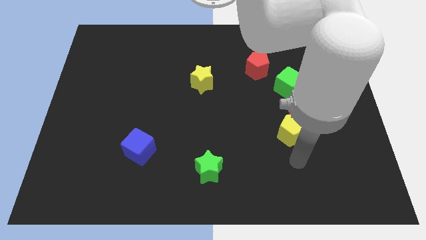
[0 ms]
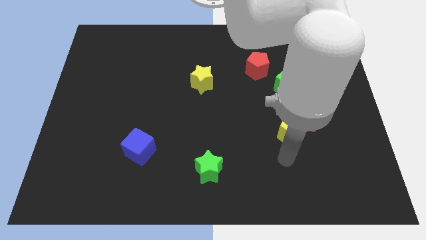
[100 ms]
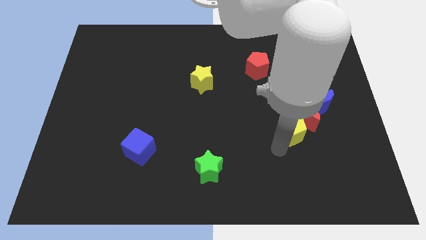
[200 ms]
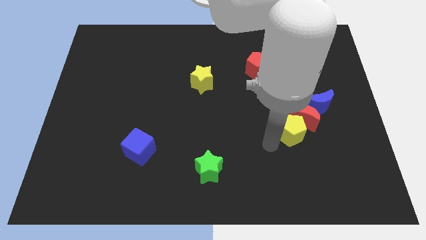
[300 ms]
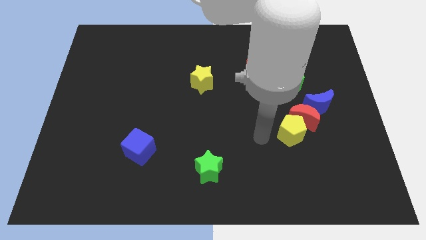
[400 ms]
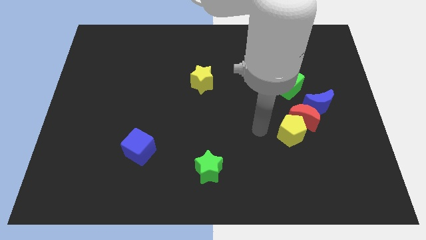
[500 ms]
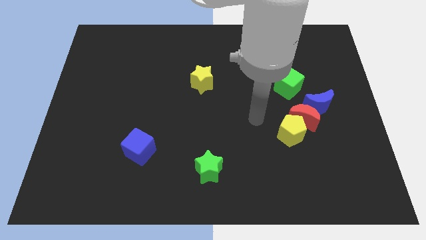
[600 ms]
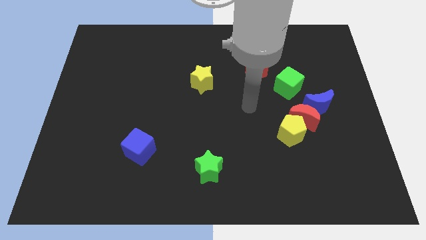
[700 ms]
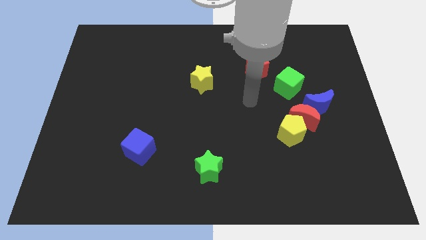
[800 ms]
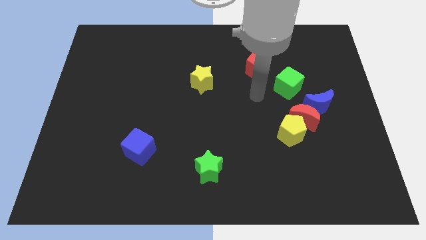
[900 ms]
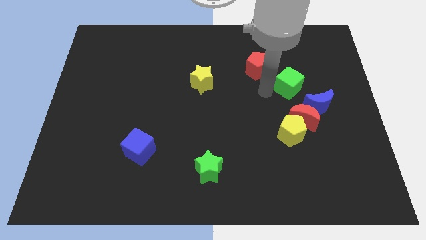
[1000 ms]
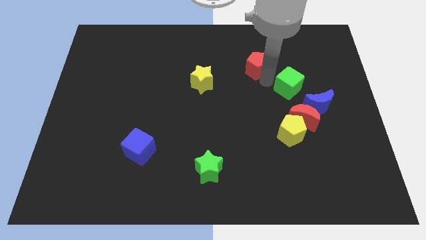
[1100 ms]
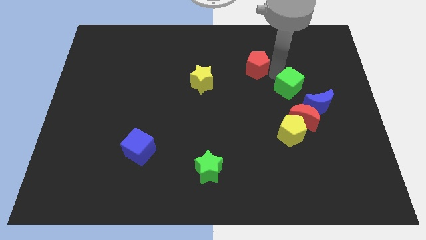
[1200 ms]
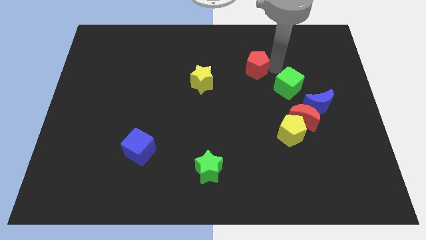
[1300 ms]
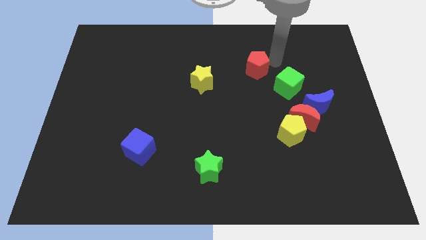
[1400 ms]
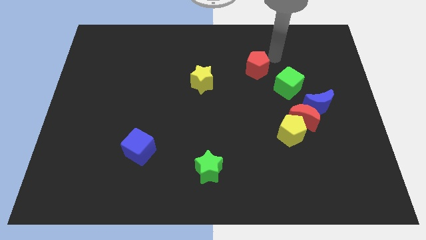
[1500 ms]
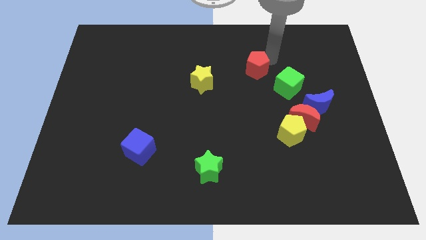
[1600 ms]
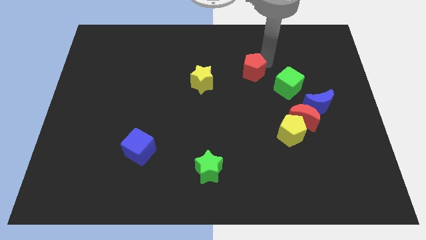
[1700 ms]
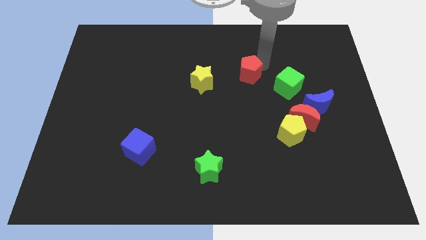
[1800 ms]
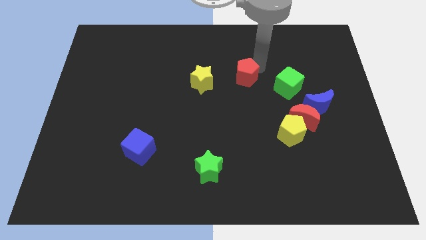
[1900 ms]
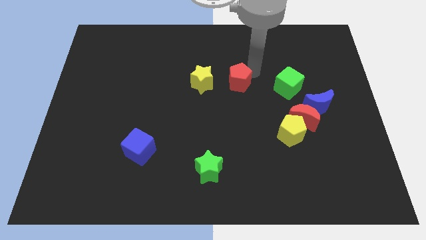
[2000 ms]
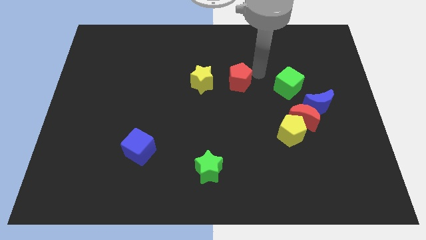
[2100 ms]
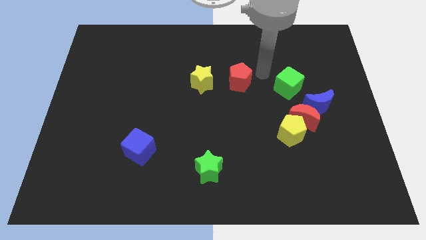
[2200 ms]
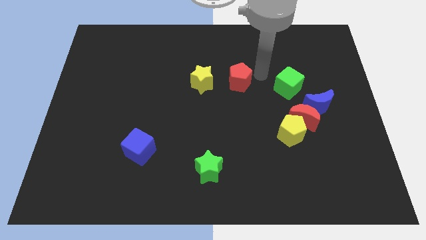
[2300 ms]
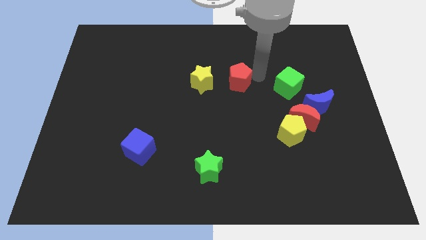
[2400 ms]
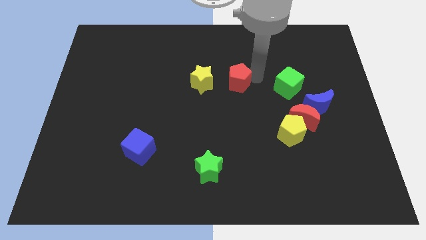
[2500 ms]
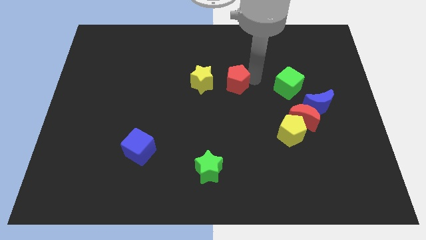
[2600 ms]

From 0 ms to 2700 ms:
move the red pentagon slightly downwards and left

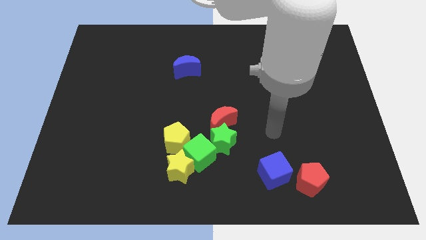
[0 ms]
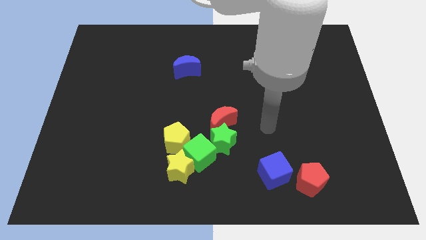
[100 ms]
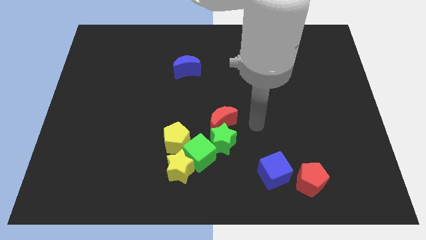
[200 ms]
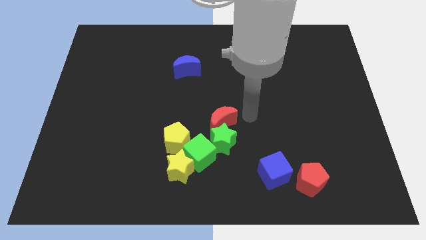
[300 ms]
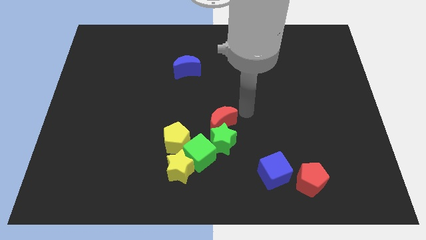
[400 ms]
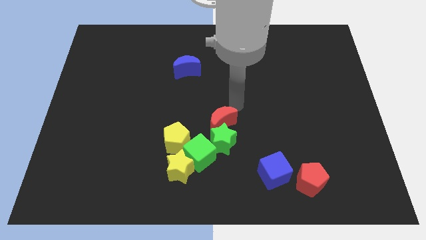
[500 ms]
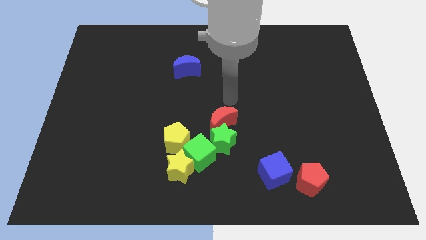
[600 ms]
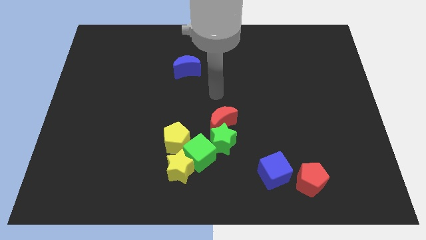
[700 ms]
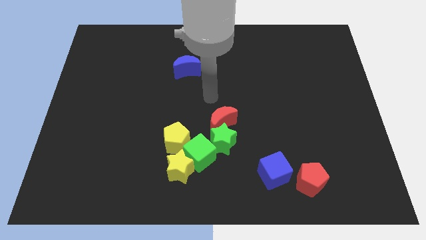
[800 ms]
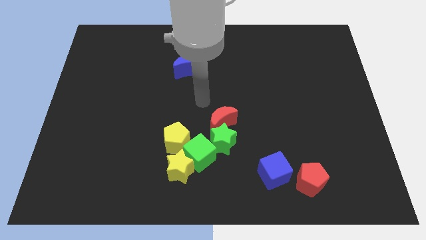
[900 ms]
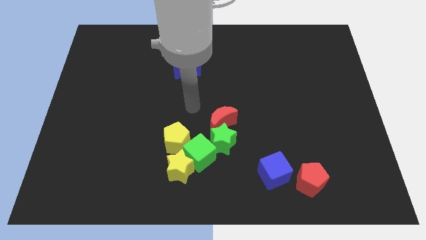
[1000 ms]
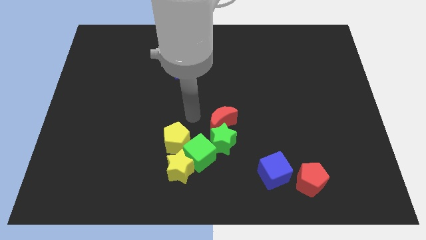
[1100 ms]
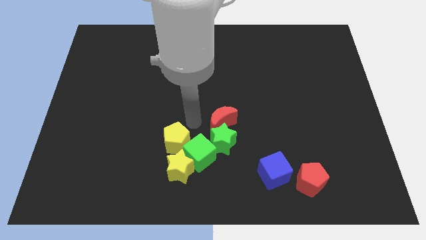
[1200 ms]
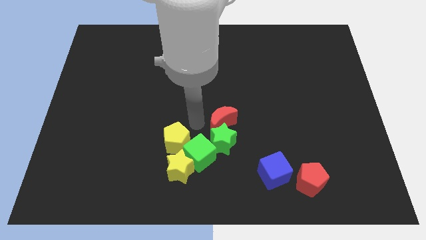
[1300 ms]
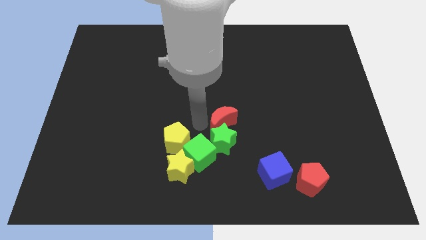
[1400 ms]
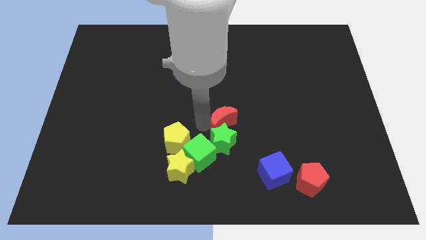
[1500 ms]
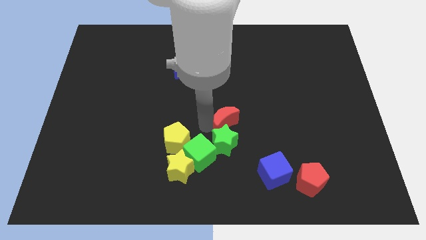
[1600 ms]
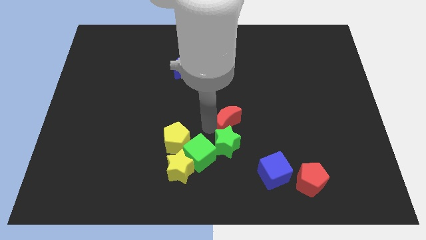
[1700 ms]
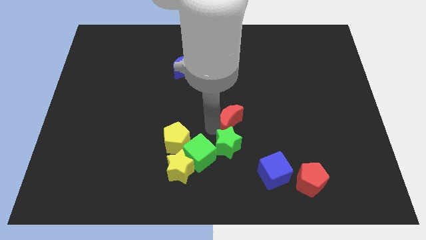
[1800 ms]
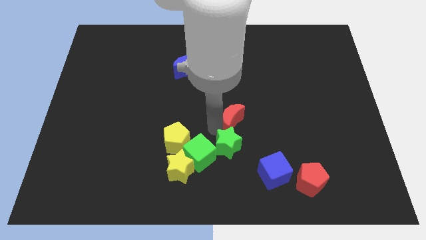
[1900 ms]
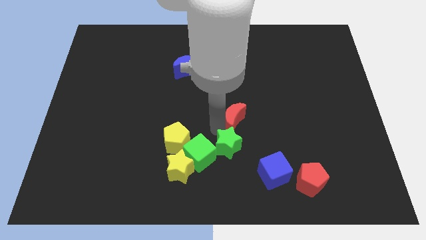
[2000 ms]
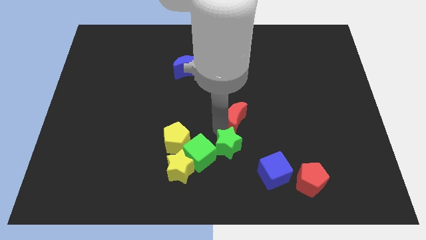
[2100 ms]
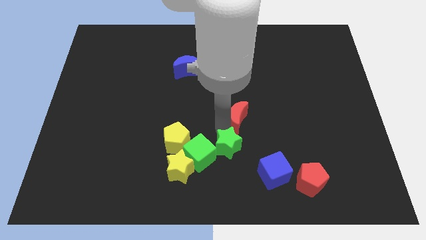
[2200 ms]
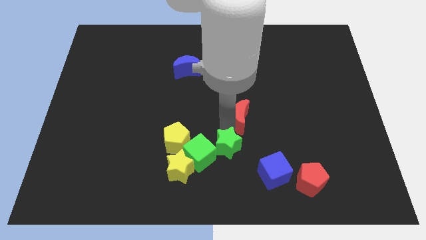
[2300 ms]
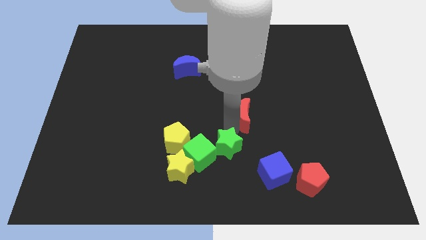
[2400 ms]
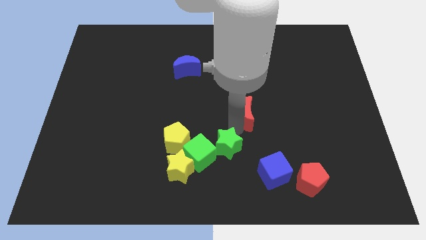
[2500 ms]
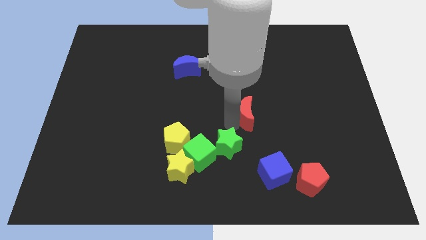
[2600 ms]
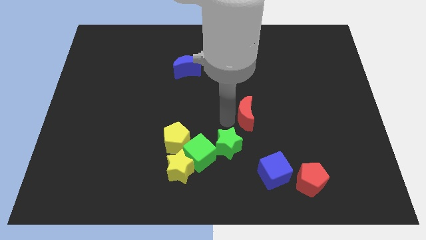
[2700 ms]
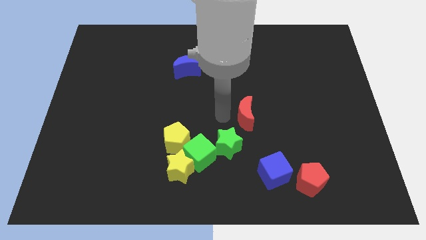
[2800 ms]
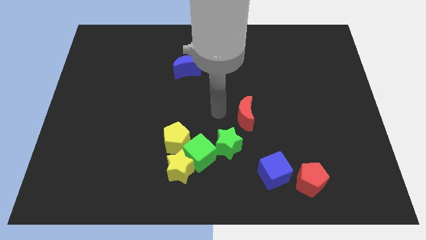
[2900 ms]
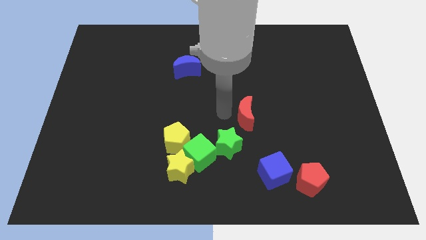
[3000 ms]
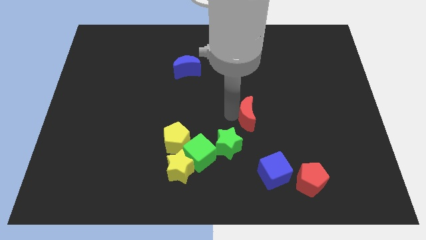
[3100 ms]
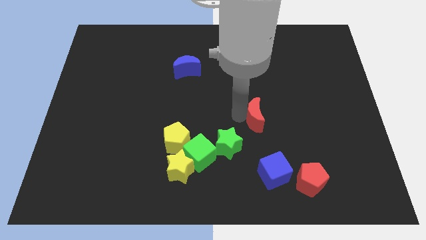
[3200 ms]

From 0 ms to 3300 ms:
slide the red moon to the right slightly

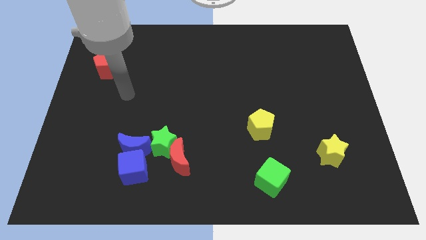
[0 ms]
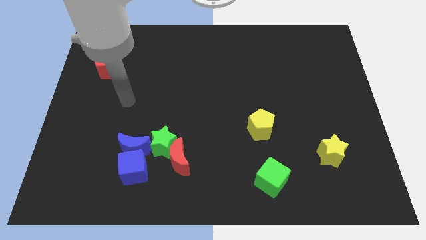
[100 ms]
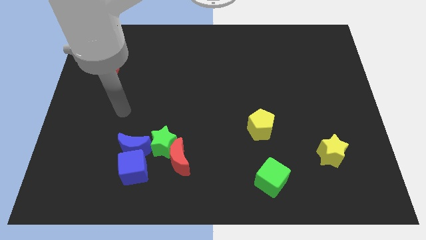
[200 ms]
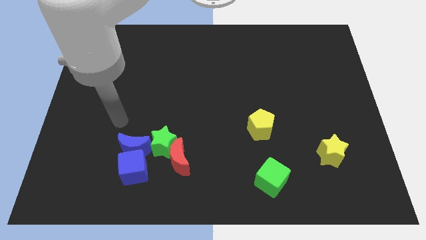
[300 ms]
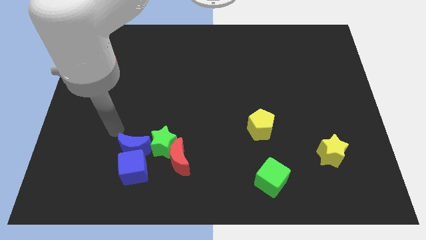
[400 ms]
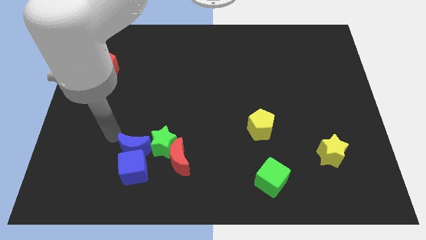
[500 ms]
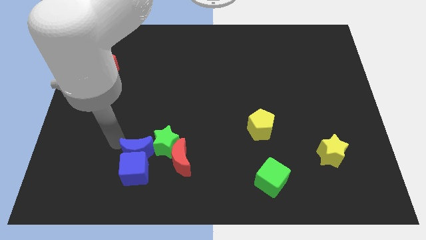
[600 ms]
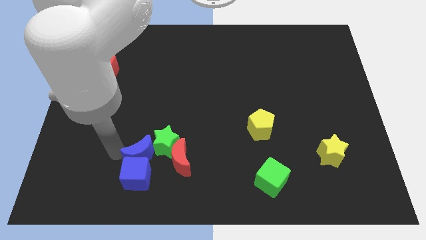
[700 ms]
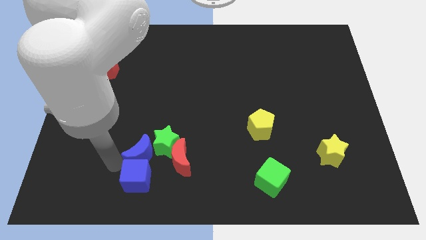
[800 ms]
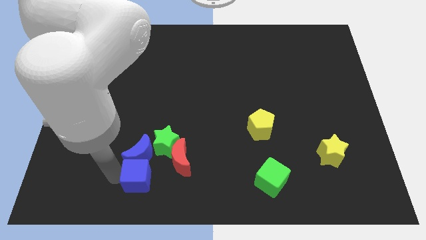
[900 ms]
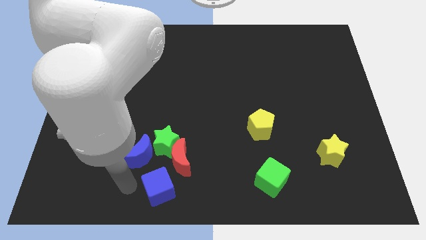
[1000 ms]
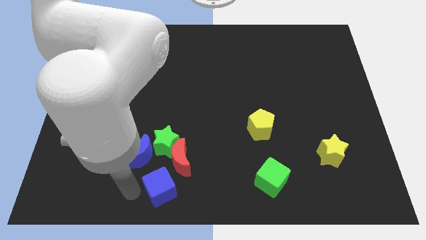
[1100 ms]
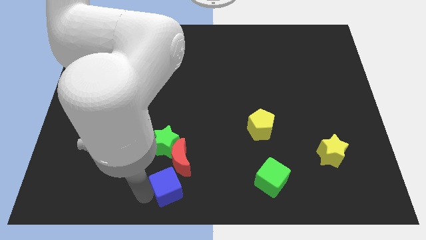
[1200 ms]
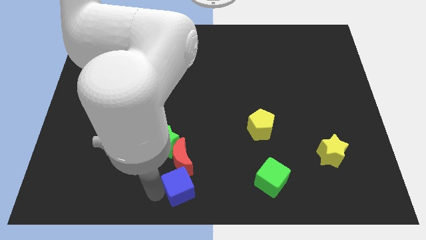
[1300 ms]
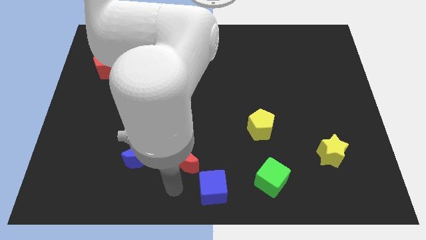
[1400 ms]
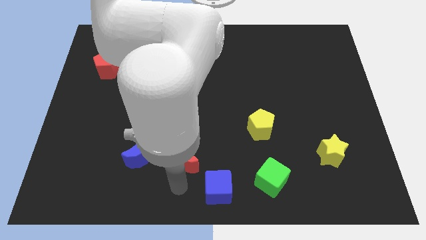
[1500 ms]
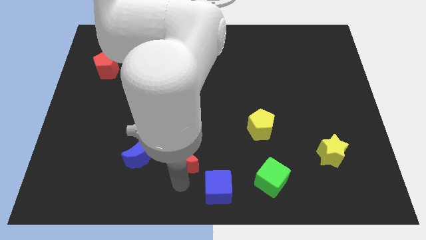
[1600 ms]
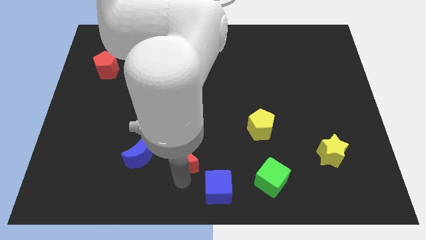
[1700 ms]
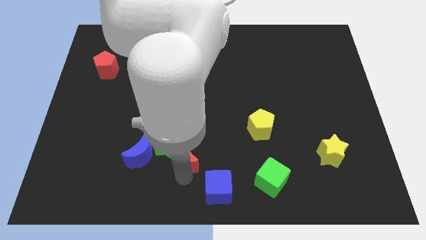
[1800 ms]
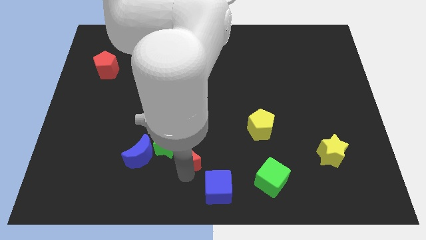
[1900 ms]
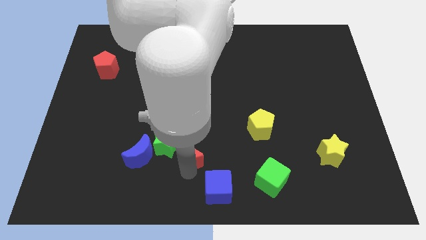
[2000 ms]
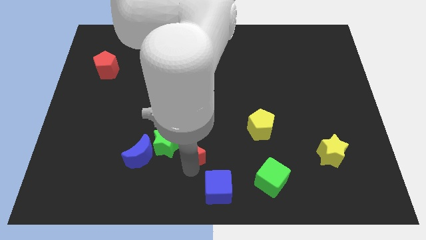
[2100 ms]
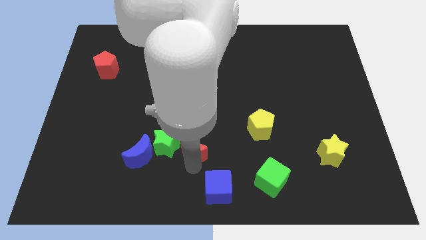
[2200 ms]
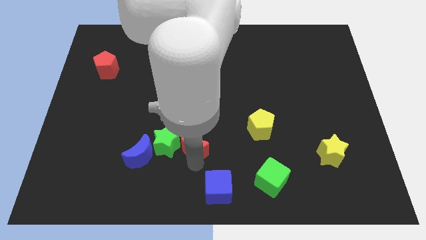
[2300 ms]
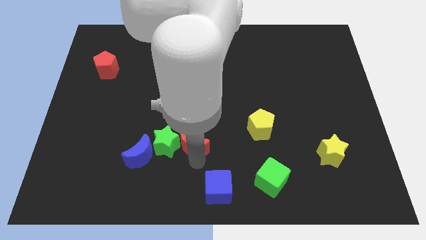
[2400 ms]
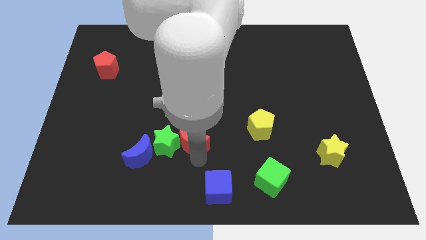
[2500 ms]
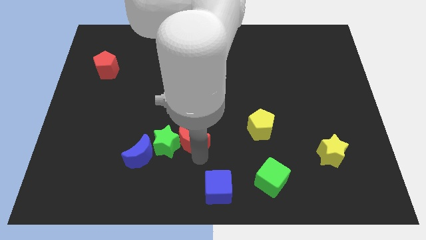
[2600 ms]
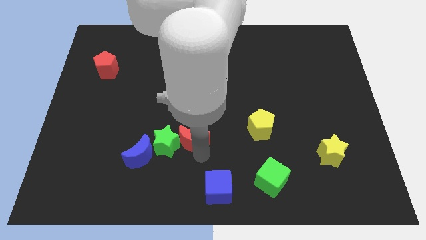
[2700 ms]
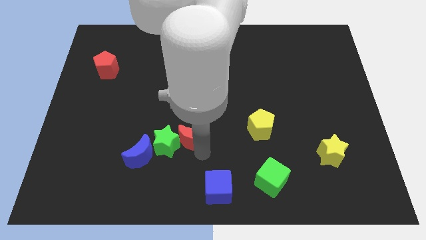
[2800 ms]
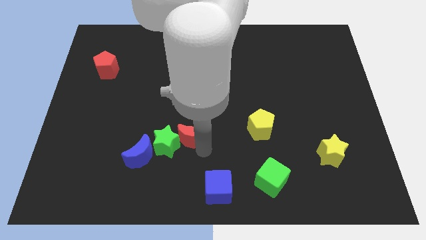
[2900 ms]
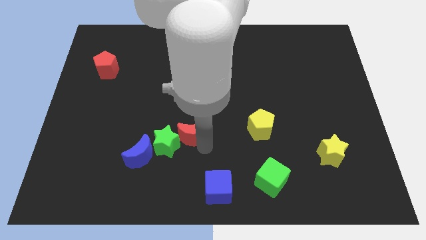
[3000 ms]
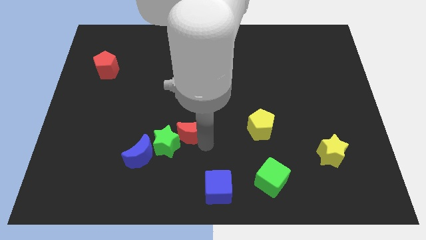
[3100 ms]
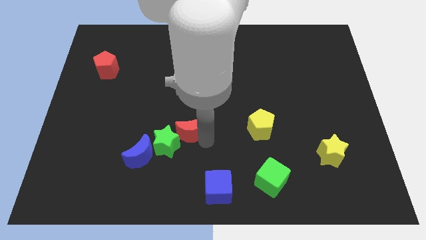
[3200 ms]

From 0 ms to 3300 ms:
slide the red moon somewhat up
